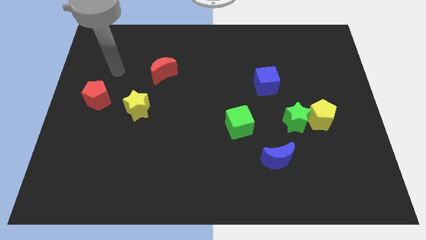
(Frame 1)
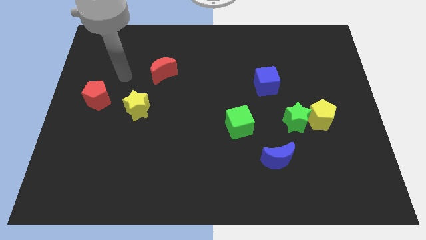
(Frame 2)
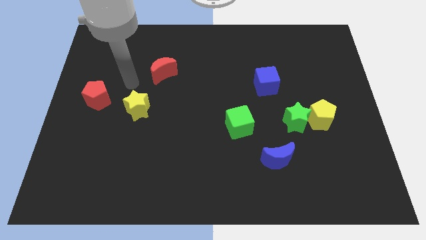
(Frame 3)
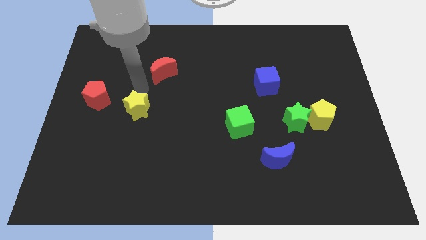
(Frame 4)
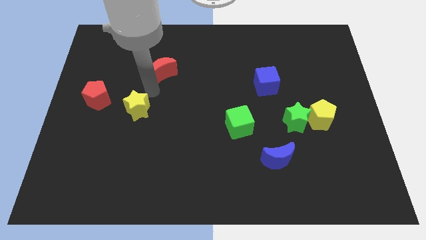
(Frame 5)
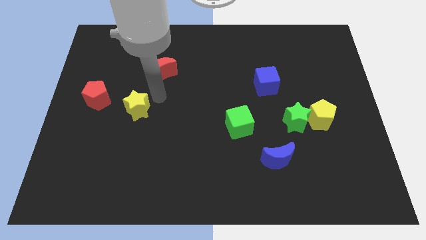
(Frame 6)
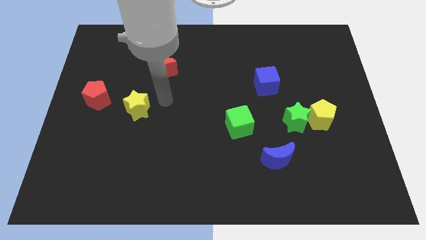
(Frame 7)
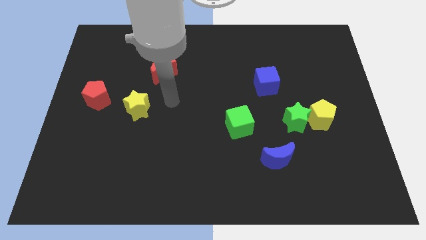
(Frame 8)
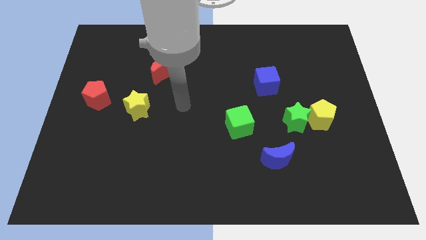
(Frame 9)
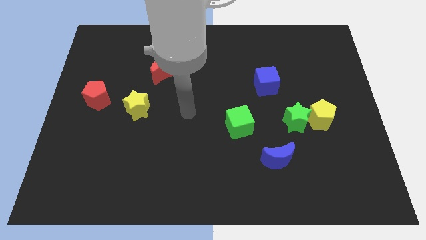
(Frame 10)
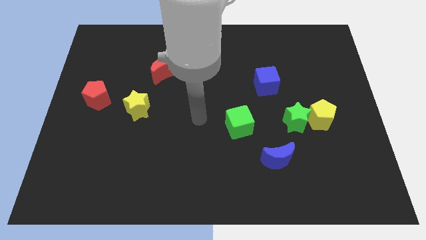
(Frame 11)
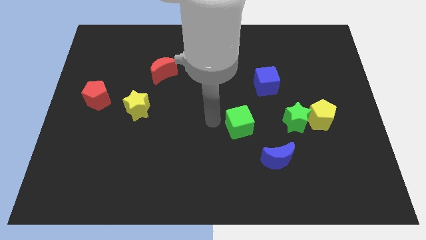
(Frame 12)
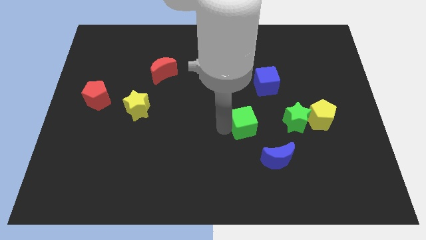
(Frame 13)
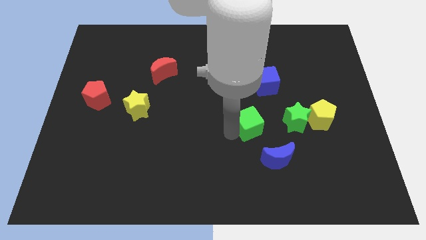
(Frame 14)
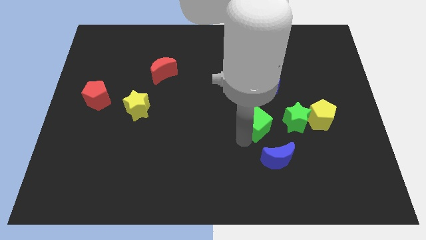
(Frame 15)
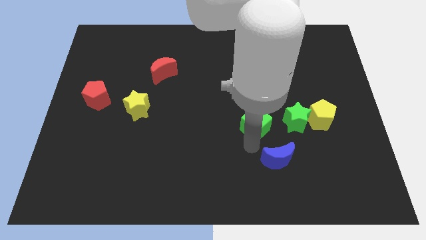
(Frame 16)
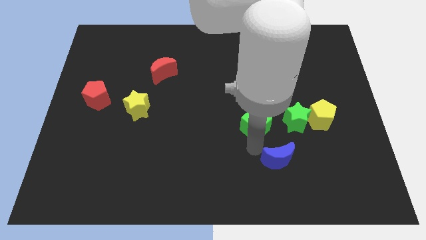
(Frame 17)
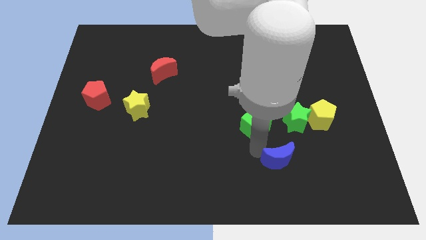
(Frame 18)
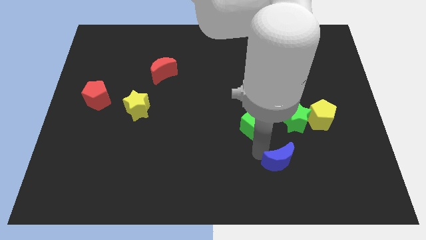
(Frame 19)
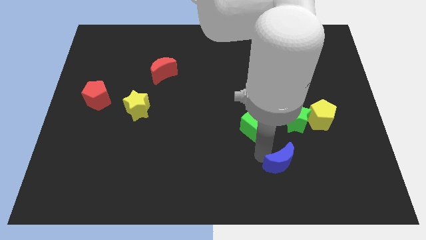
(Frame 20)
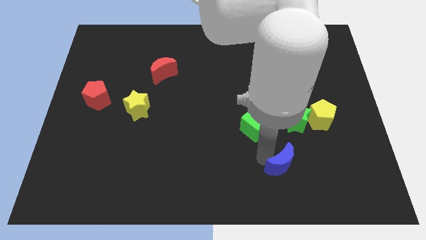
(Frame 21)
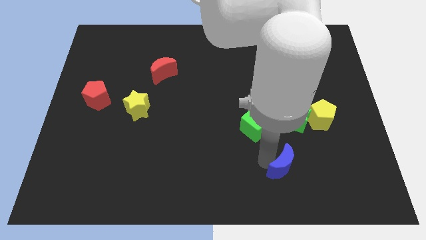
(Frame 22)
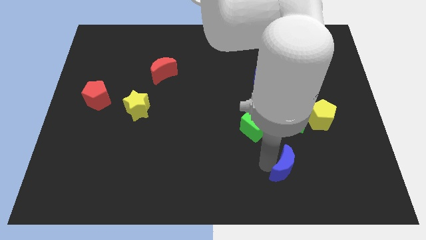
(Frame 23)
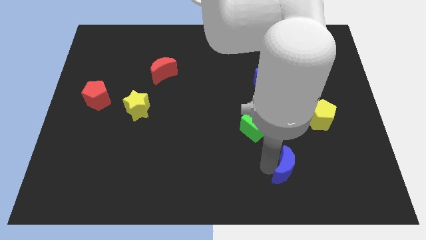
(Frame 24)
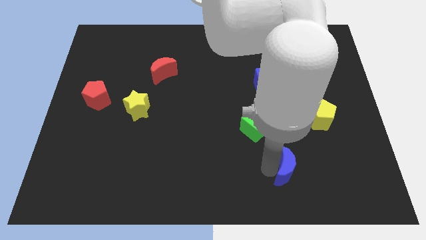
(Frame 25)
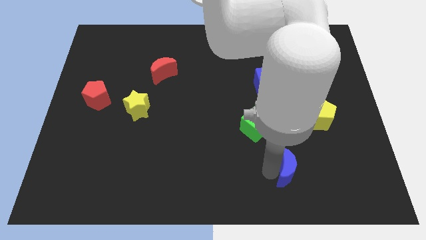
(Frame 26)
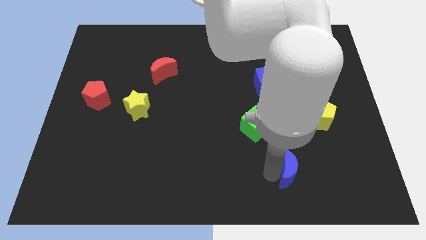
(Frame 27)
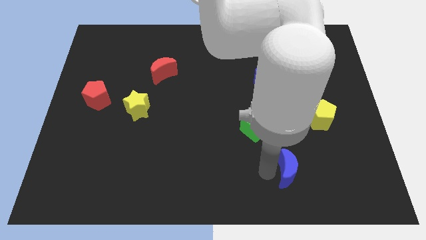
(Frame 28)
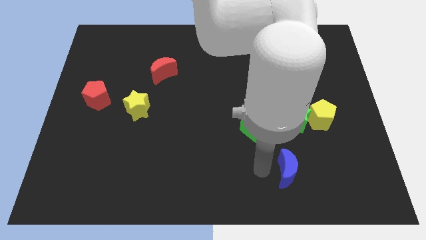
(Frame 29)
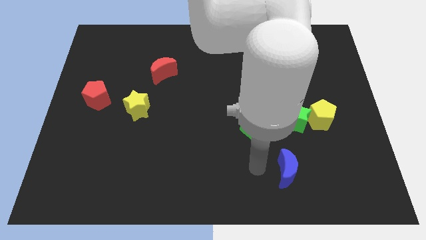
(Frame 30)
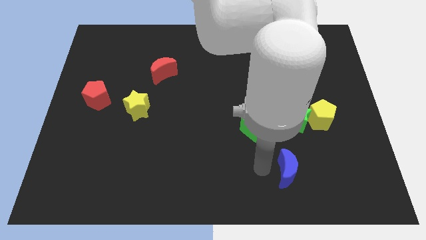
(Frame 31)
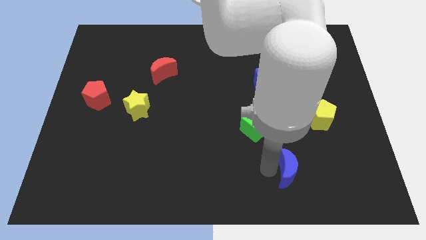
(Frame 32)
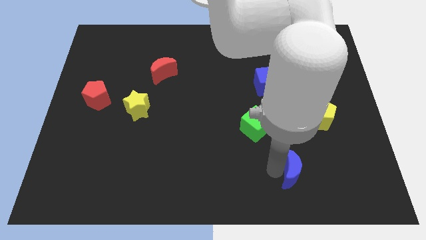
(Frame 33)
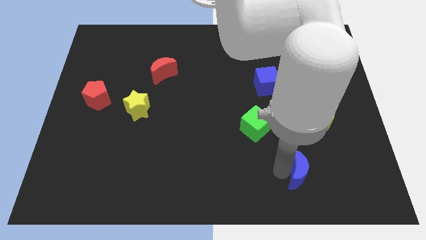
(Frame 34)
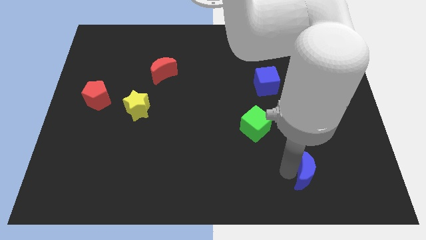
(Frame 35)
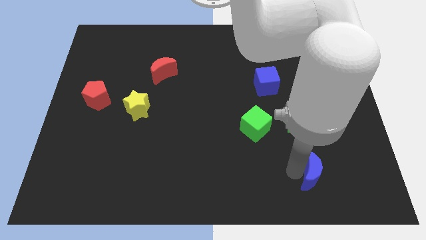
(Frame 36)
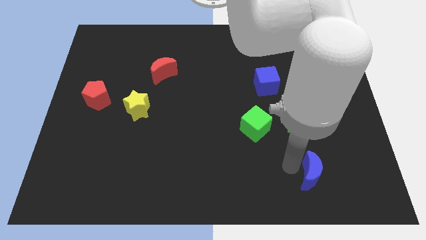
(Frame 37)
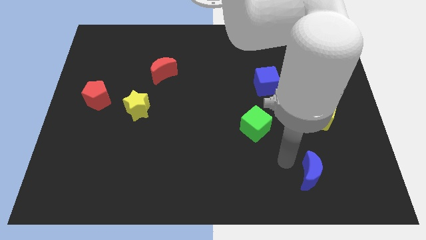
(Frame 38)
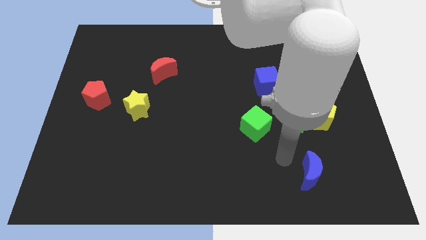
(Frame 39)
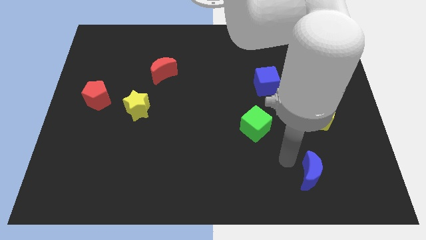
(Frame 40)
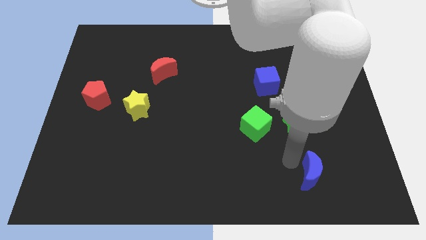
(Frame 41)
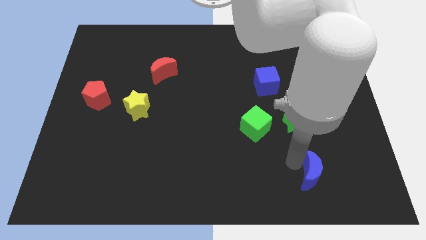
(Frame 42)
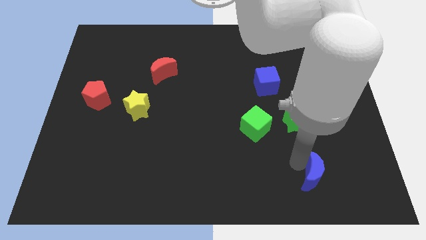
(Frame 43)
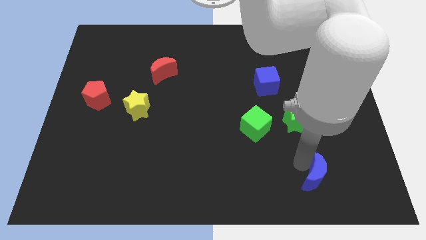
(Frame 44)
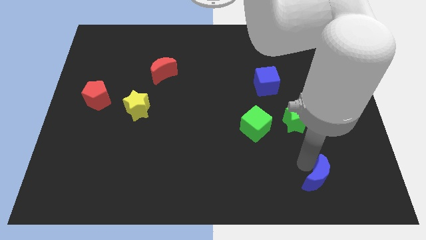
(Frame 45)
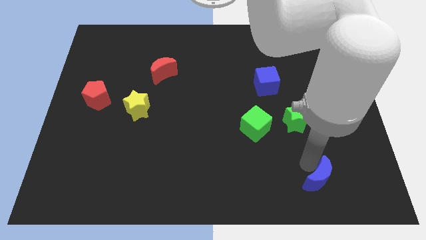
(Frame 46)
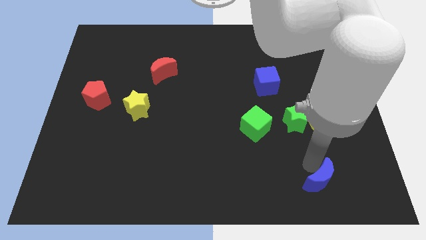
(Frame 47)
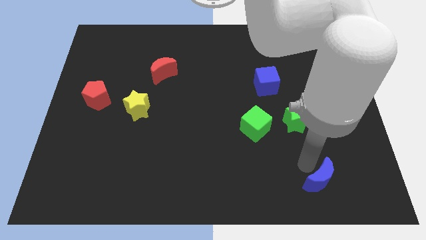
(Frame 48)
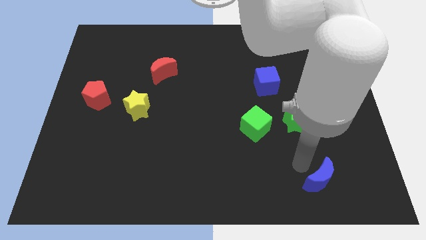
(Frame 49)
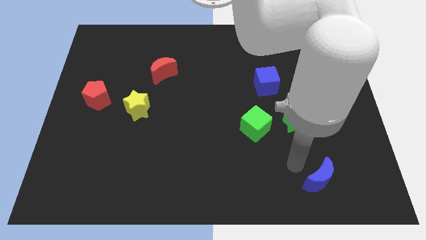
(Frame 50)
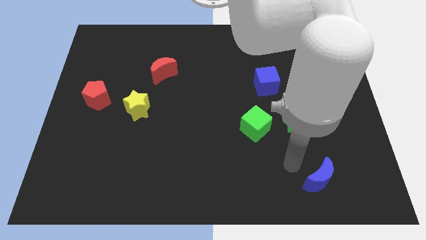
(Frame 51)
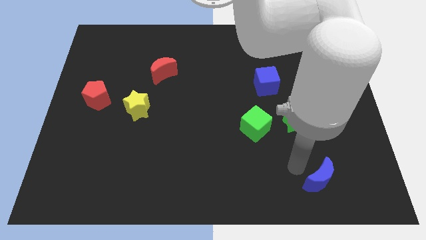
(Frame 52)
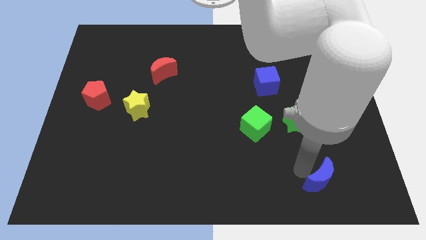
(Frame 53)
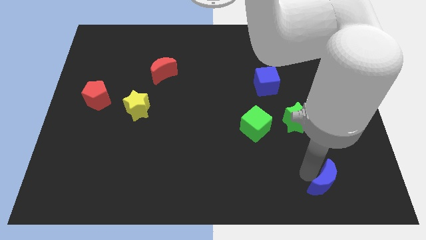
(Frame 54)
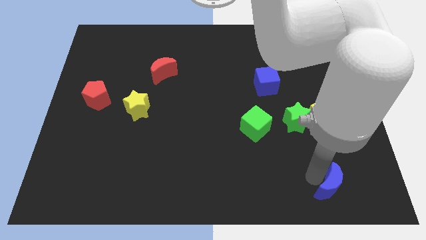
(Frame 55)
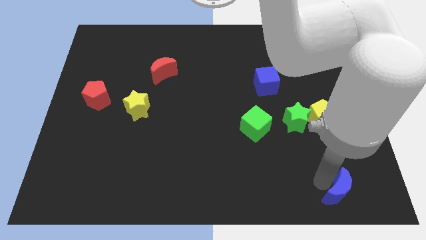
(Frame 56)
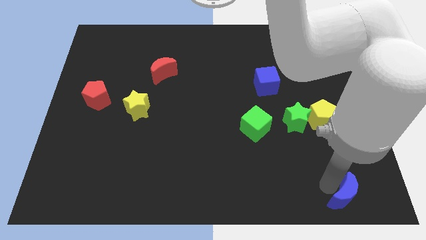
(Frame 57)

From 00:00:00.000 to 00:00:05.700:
put the blue moon to the bottom right
